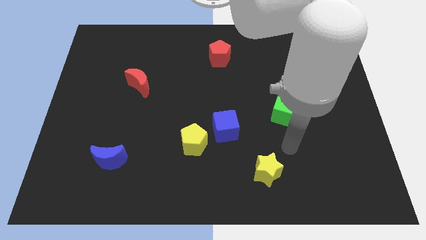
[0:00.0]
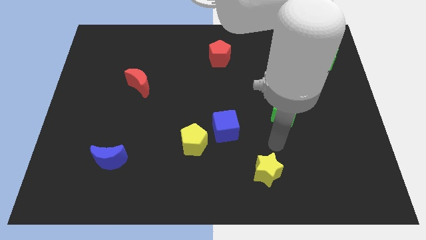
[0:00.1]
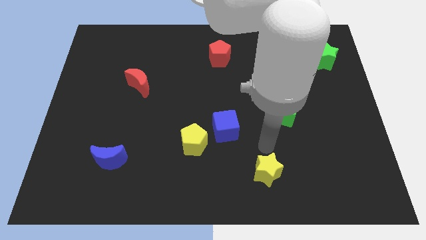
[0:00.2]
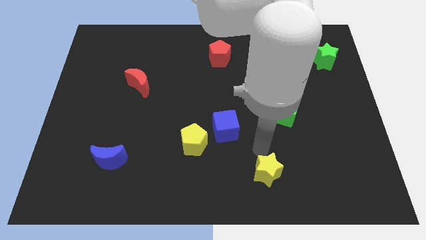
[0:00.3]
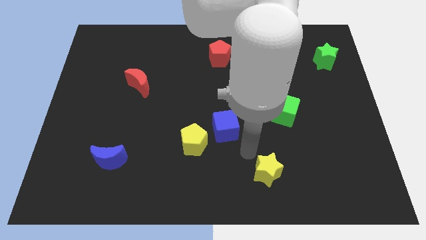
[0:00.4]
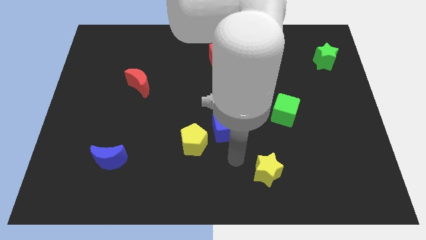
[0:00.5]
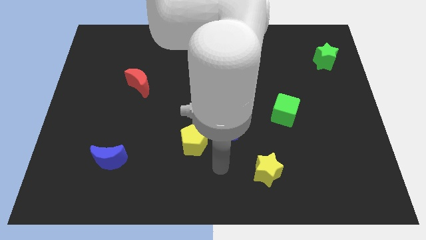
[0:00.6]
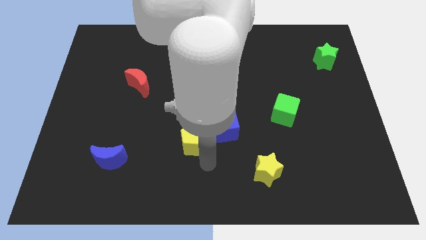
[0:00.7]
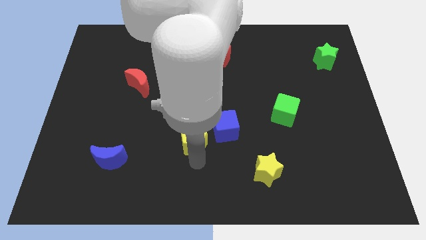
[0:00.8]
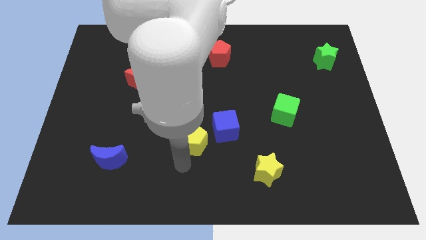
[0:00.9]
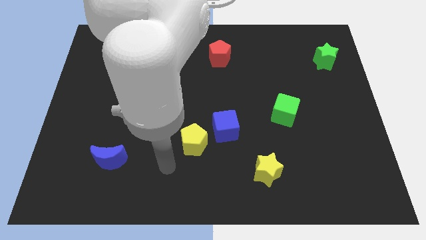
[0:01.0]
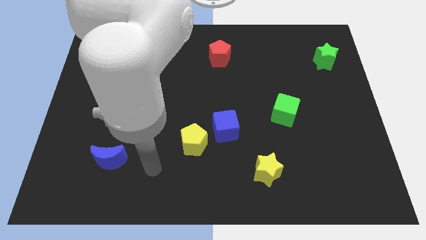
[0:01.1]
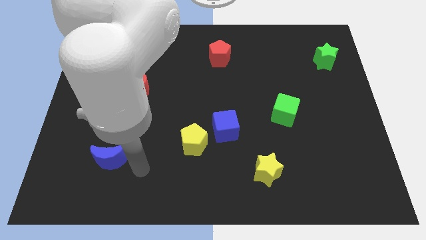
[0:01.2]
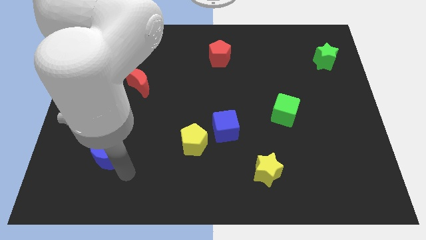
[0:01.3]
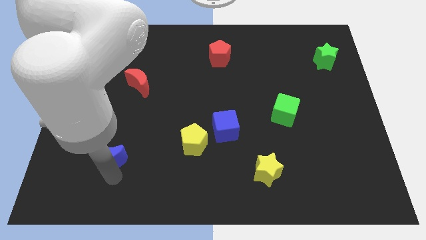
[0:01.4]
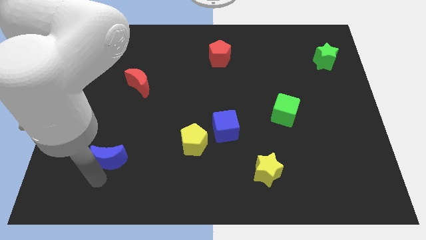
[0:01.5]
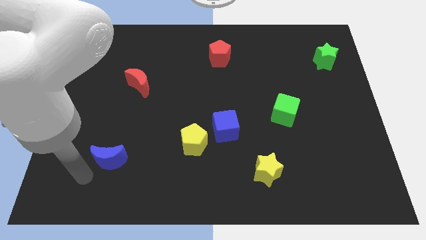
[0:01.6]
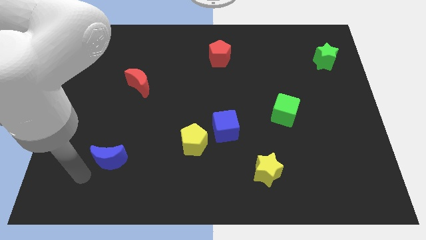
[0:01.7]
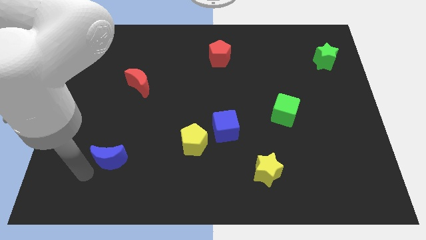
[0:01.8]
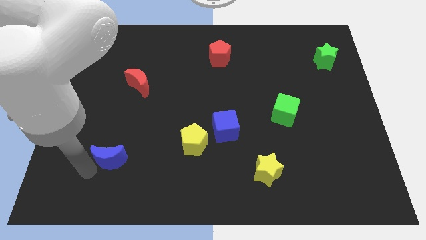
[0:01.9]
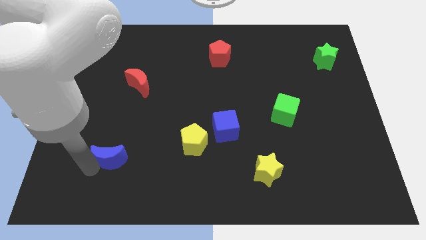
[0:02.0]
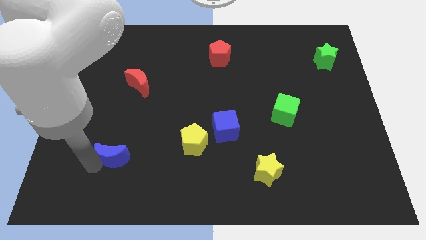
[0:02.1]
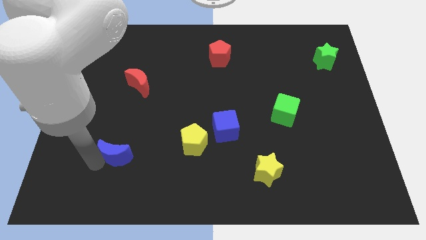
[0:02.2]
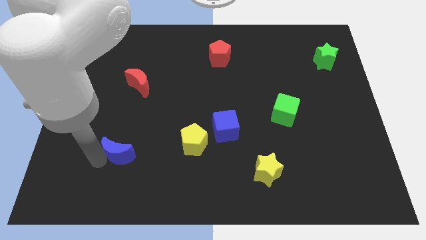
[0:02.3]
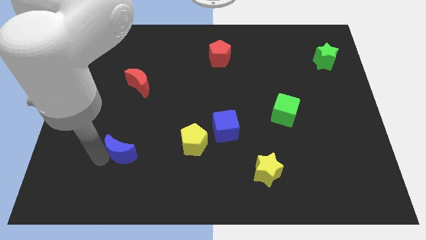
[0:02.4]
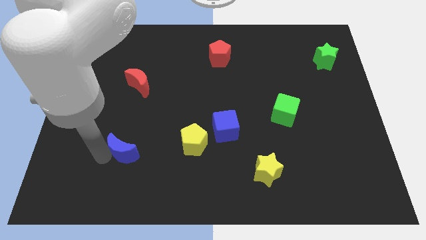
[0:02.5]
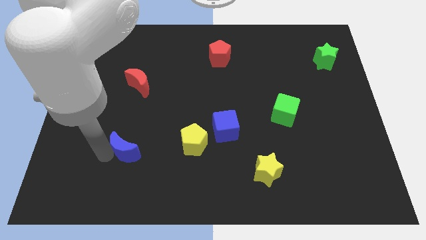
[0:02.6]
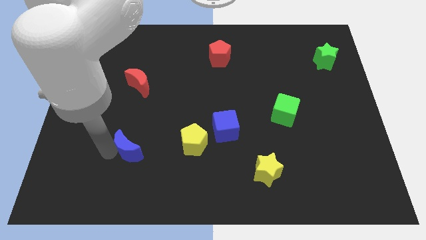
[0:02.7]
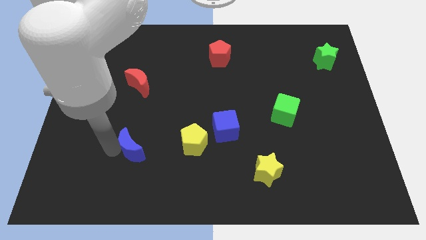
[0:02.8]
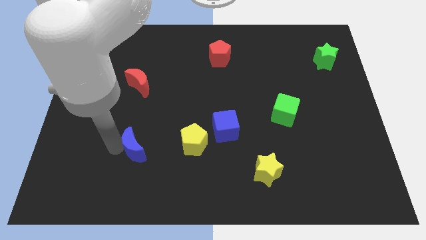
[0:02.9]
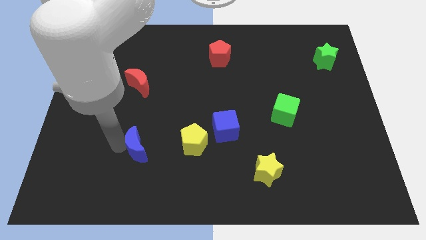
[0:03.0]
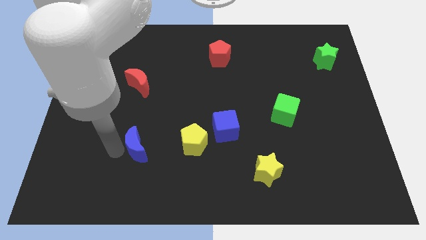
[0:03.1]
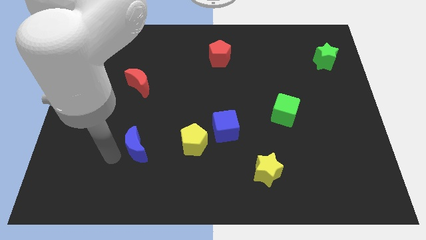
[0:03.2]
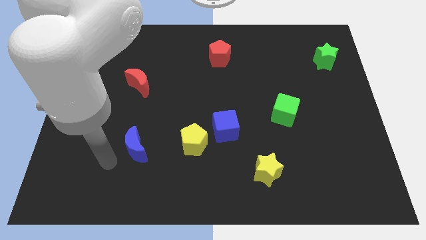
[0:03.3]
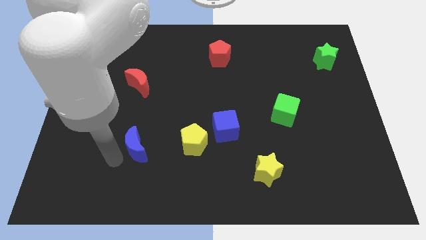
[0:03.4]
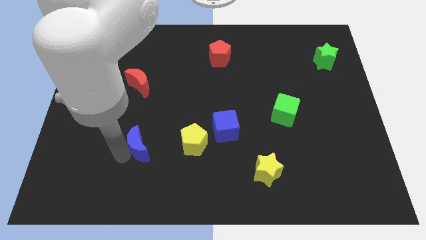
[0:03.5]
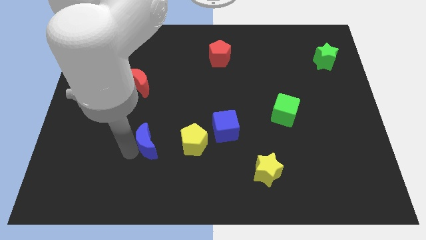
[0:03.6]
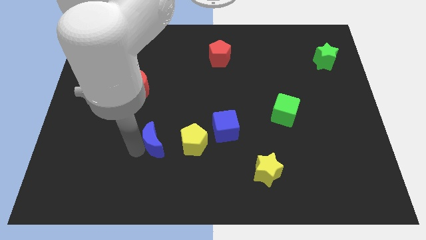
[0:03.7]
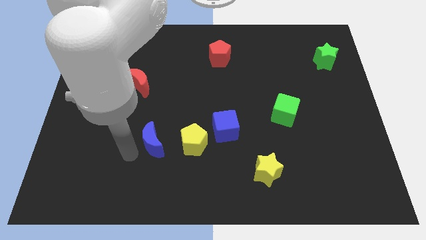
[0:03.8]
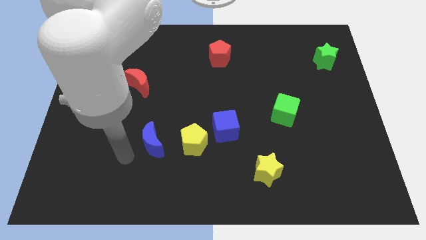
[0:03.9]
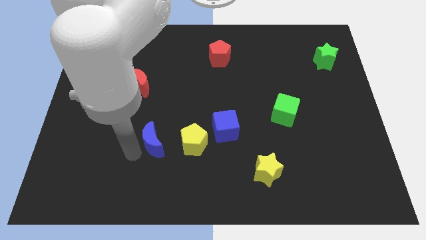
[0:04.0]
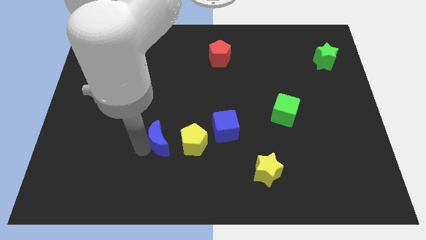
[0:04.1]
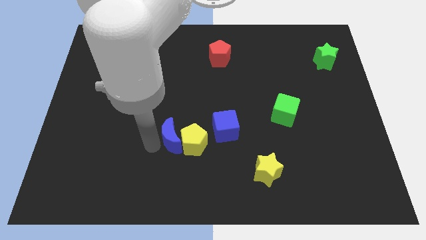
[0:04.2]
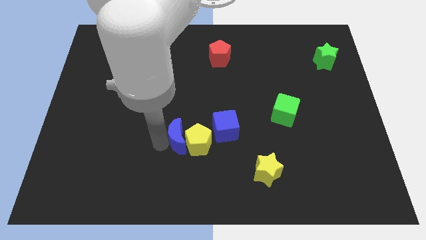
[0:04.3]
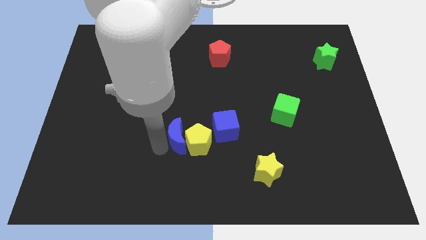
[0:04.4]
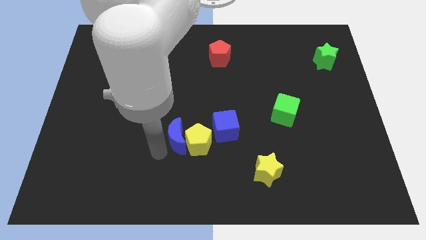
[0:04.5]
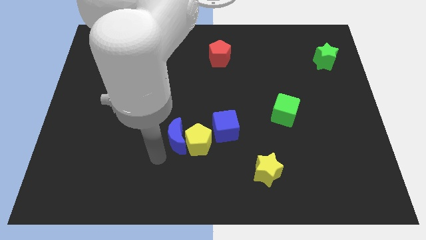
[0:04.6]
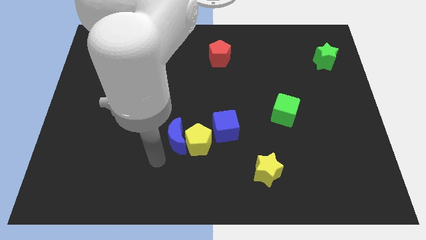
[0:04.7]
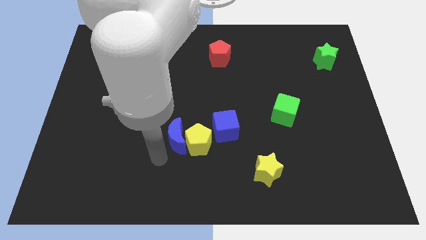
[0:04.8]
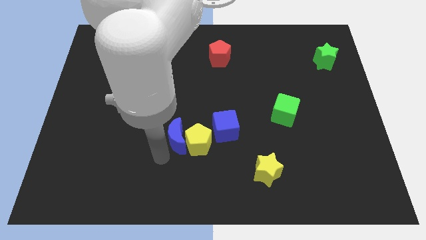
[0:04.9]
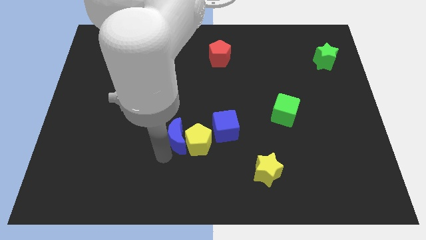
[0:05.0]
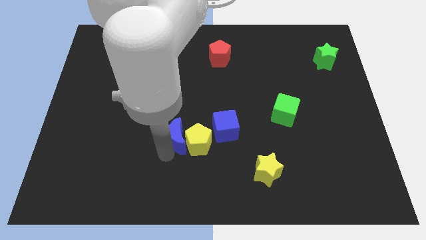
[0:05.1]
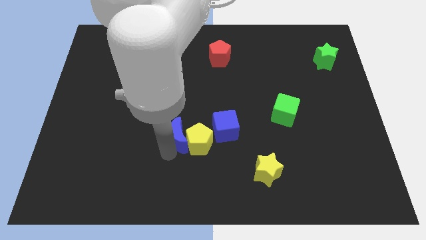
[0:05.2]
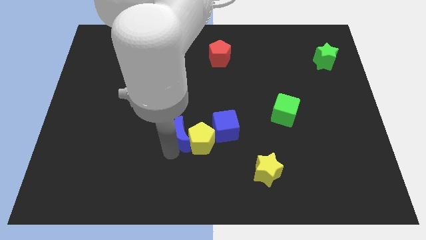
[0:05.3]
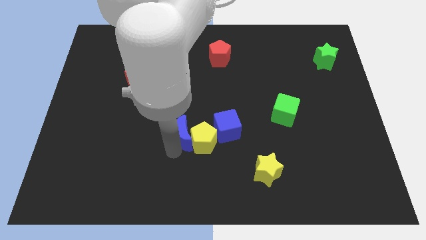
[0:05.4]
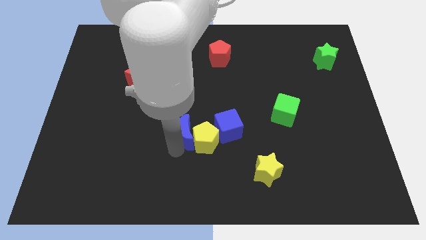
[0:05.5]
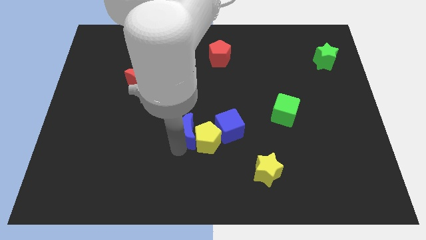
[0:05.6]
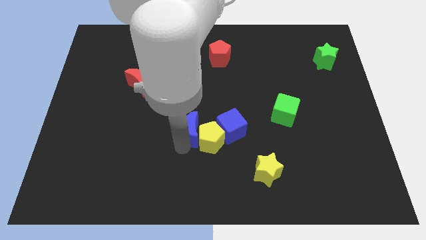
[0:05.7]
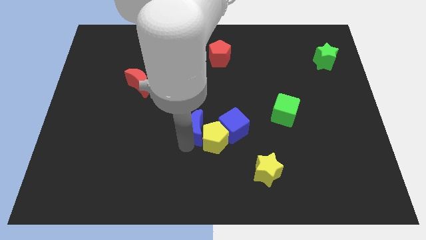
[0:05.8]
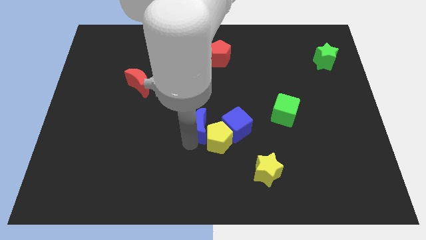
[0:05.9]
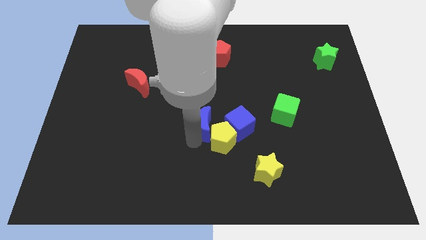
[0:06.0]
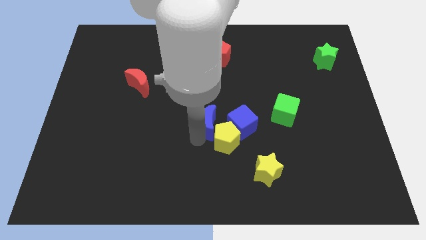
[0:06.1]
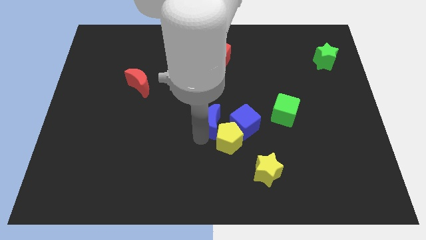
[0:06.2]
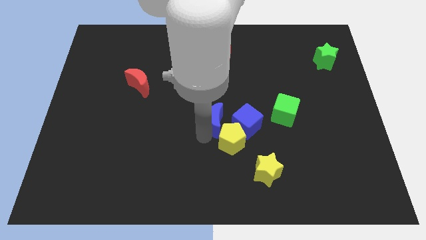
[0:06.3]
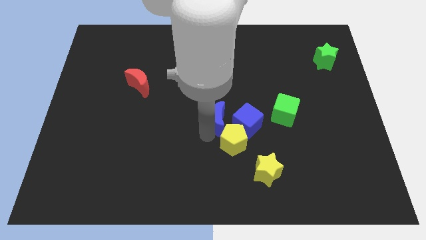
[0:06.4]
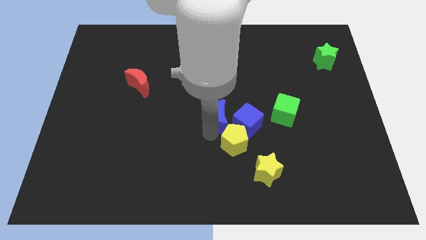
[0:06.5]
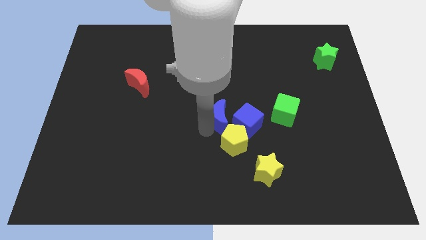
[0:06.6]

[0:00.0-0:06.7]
slide the blue moon to the blue cube

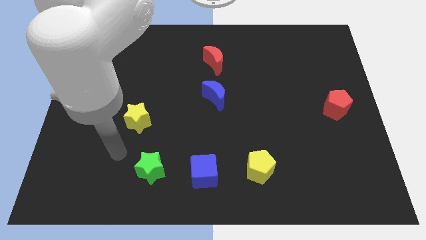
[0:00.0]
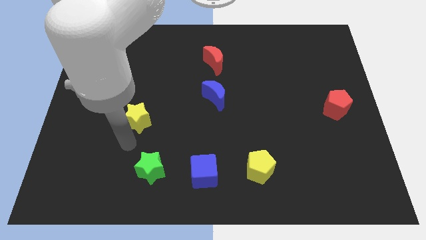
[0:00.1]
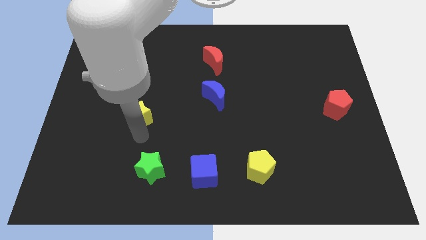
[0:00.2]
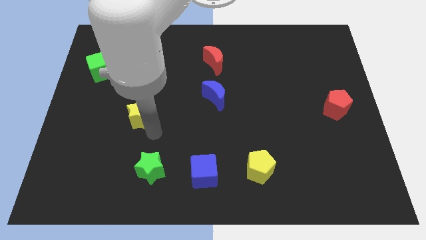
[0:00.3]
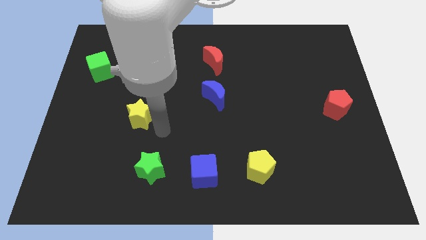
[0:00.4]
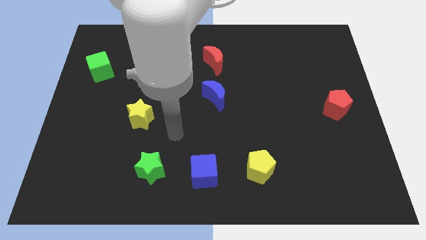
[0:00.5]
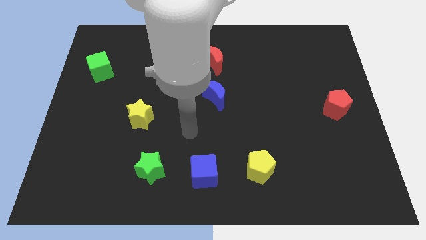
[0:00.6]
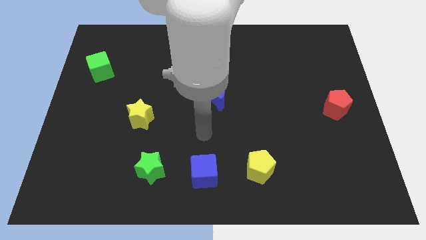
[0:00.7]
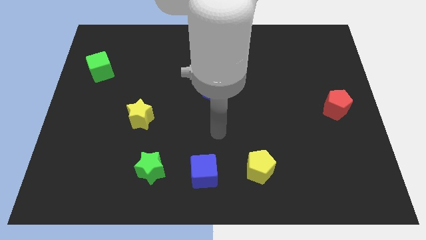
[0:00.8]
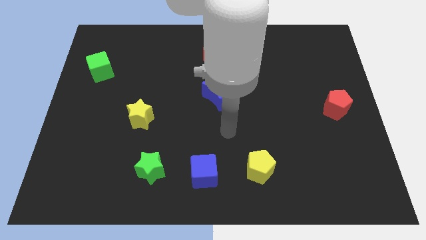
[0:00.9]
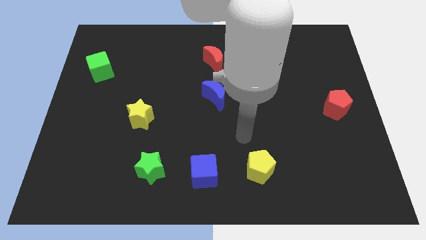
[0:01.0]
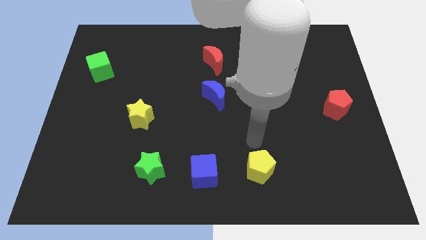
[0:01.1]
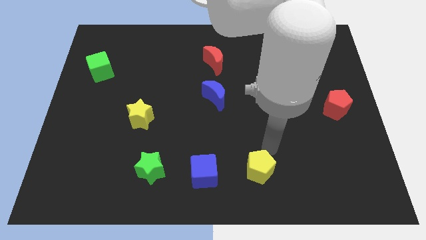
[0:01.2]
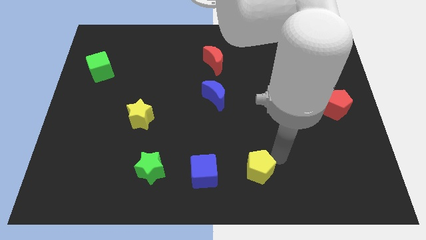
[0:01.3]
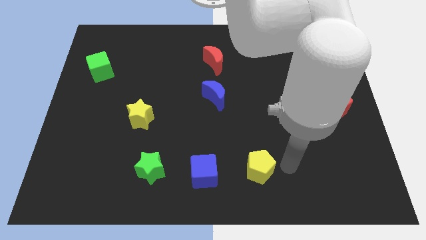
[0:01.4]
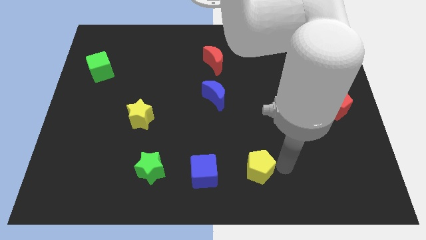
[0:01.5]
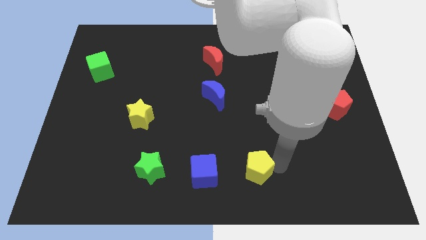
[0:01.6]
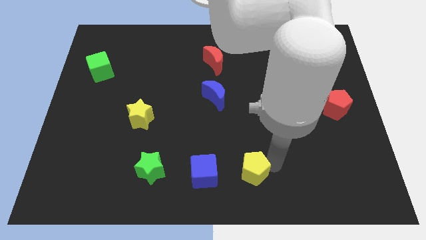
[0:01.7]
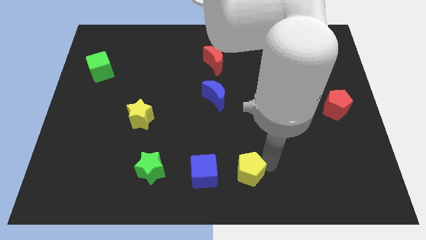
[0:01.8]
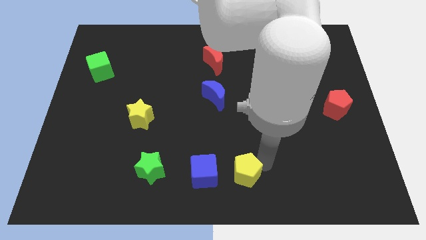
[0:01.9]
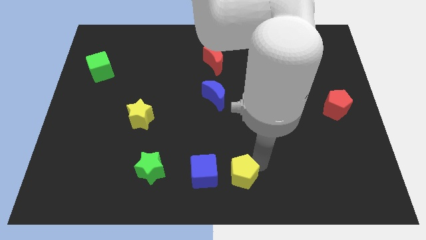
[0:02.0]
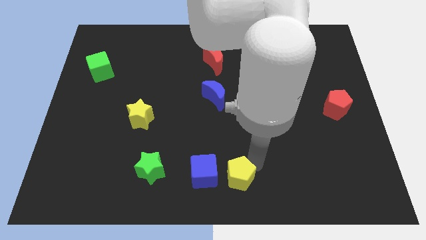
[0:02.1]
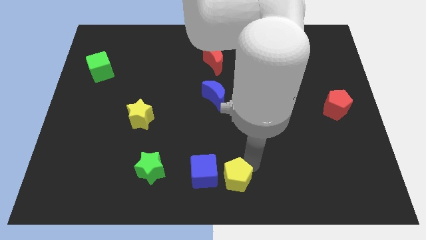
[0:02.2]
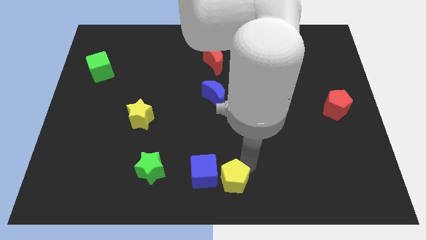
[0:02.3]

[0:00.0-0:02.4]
push the yellow pentagon close to the blue cube
